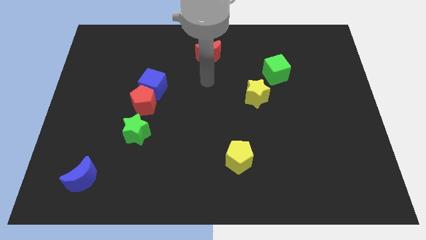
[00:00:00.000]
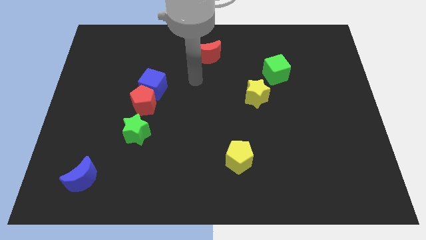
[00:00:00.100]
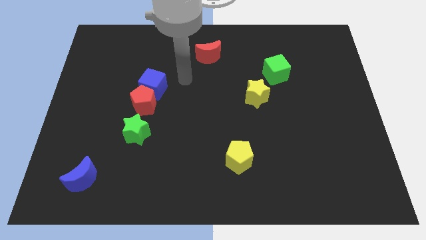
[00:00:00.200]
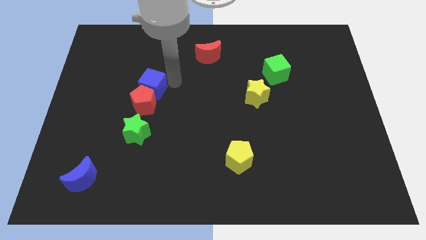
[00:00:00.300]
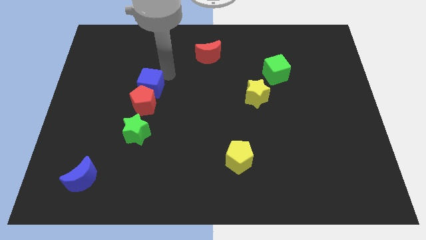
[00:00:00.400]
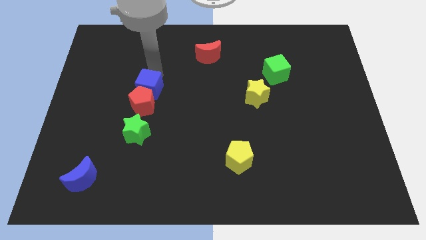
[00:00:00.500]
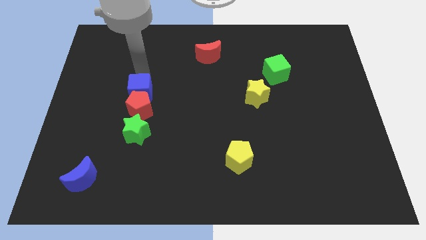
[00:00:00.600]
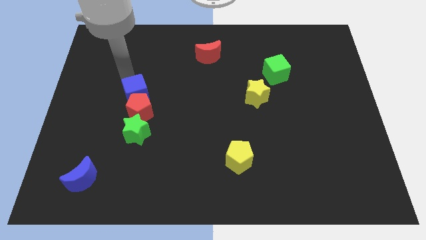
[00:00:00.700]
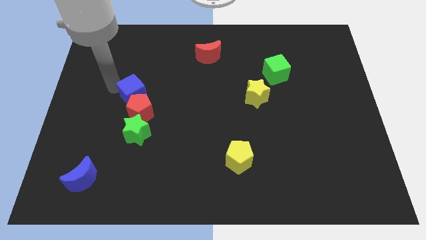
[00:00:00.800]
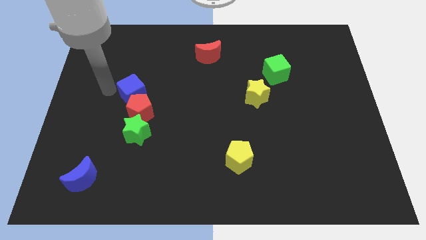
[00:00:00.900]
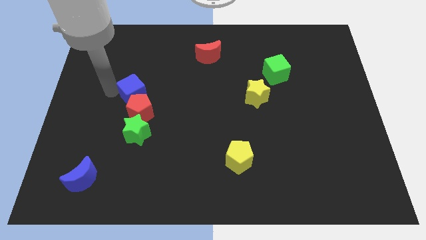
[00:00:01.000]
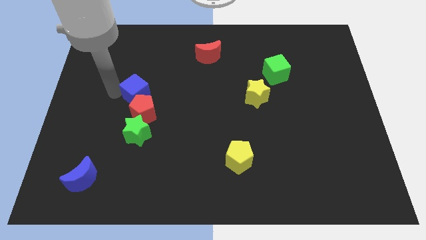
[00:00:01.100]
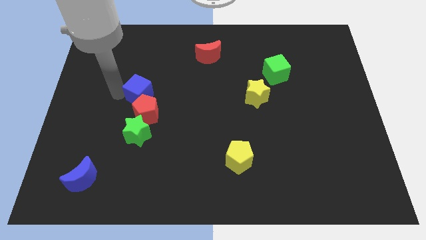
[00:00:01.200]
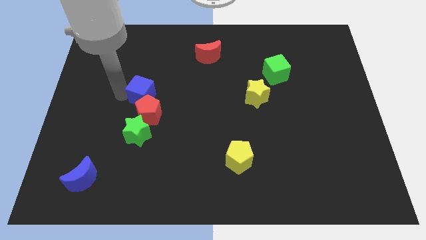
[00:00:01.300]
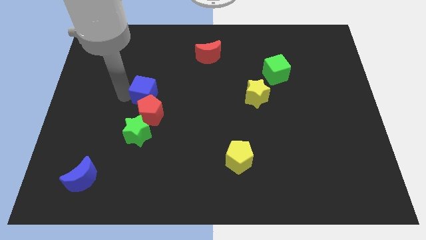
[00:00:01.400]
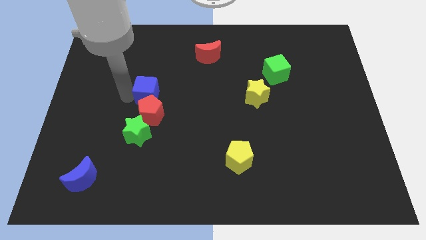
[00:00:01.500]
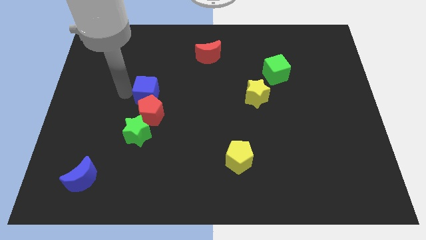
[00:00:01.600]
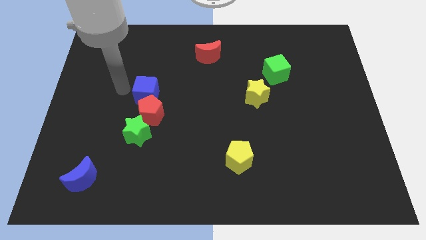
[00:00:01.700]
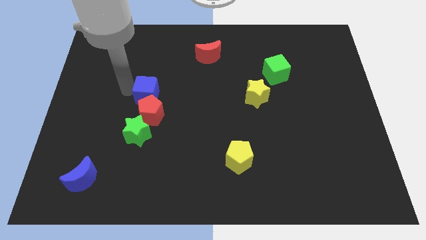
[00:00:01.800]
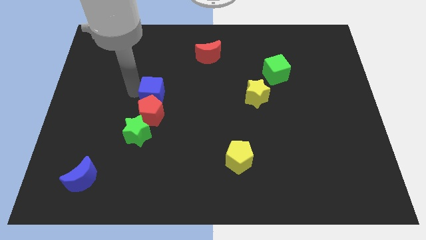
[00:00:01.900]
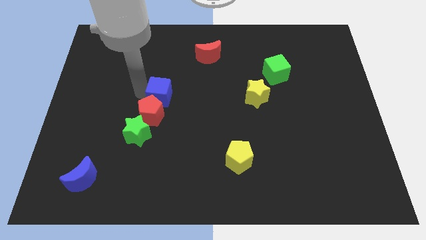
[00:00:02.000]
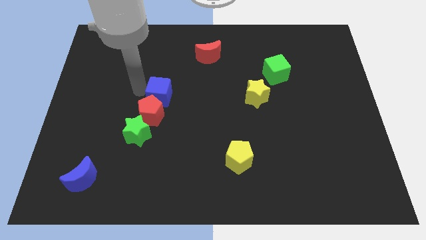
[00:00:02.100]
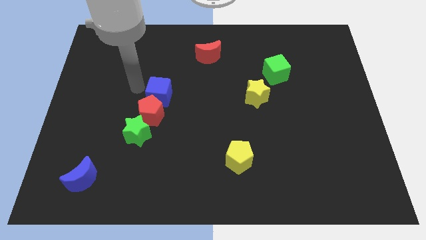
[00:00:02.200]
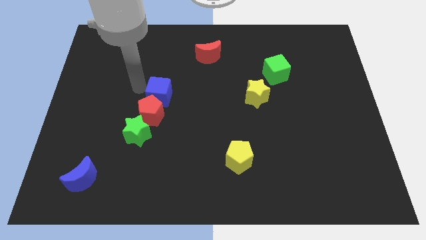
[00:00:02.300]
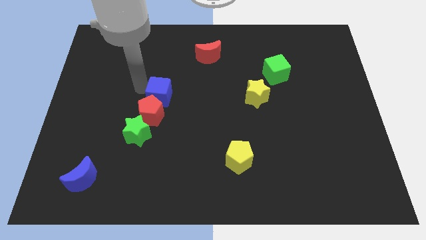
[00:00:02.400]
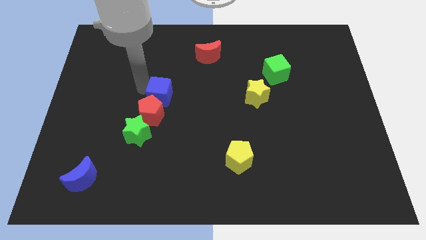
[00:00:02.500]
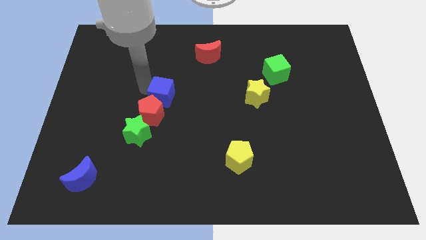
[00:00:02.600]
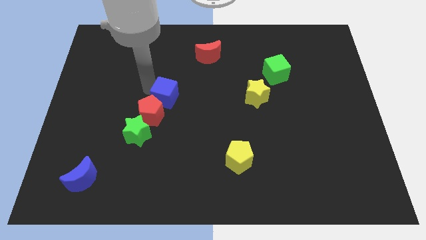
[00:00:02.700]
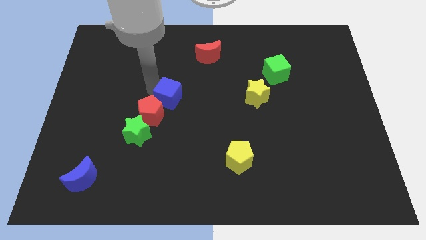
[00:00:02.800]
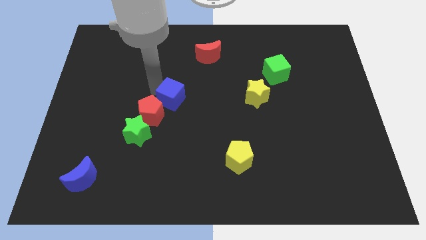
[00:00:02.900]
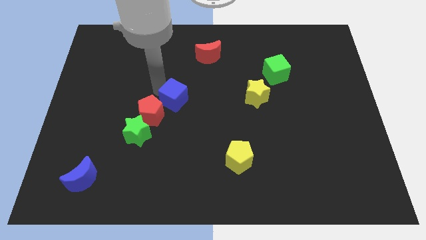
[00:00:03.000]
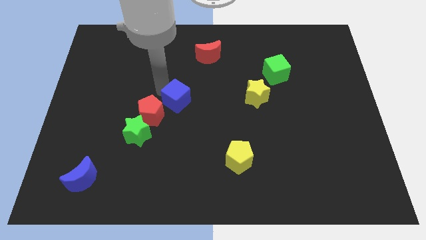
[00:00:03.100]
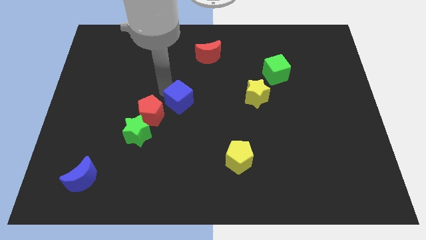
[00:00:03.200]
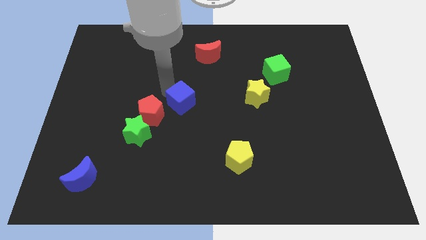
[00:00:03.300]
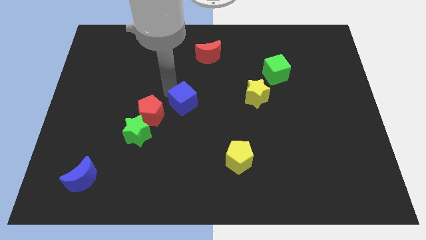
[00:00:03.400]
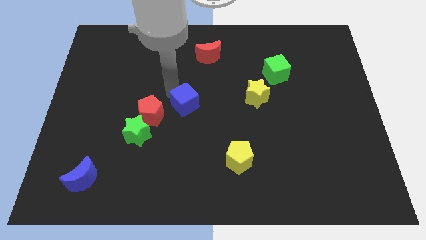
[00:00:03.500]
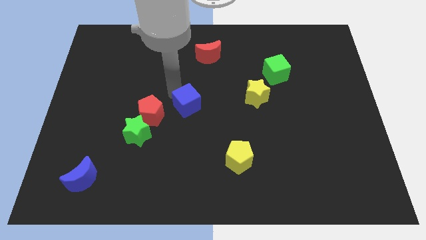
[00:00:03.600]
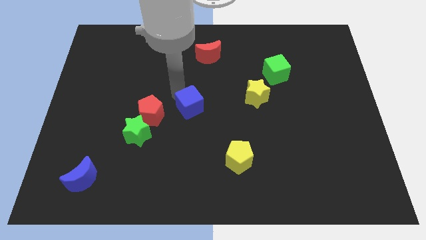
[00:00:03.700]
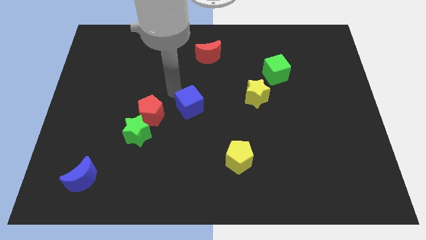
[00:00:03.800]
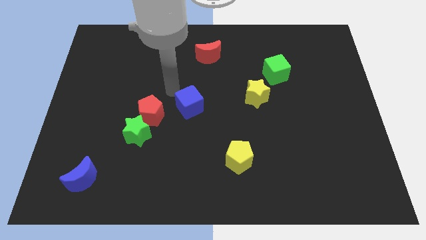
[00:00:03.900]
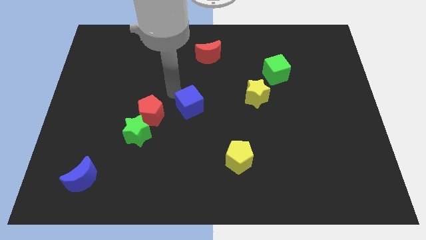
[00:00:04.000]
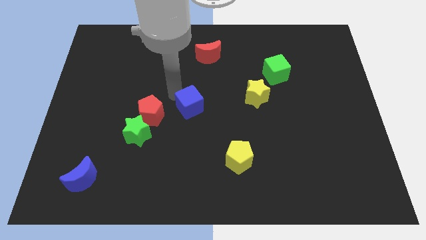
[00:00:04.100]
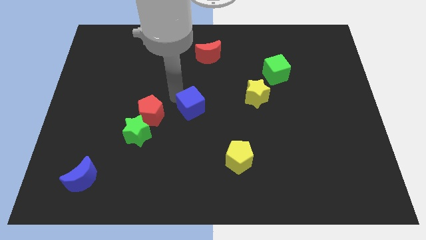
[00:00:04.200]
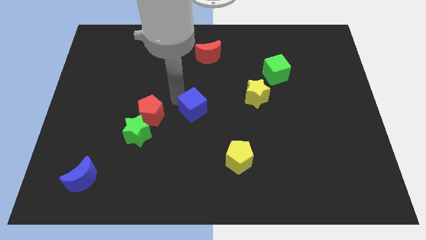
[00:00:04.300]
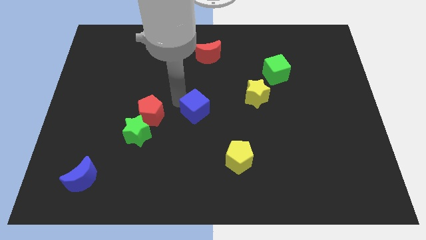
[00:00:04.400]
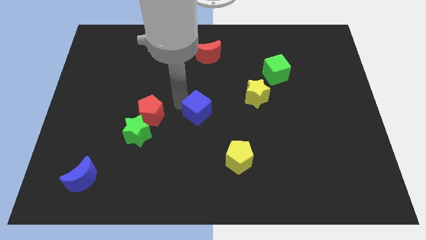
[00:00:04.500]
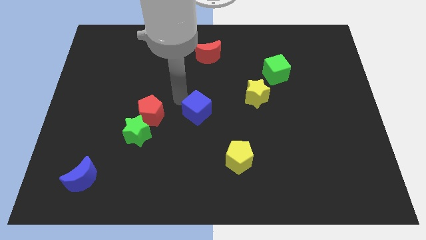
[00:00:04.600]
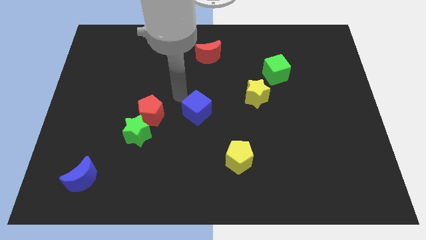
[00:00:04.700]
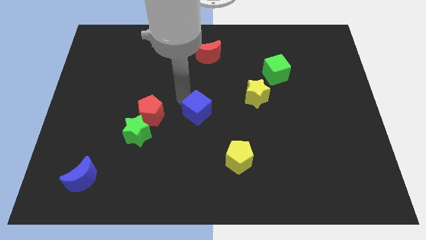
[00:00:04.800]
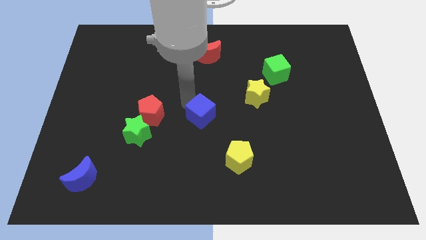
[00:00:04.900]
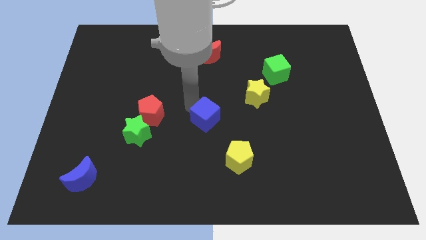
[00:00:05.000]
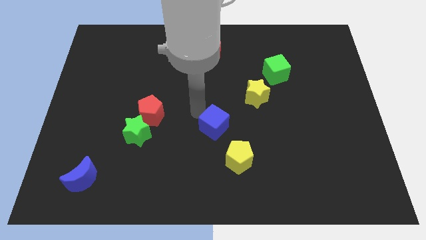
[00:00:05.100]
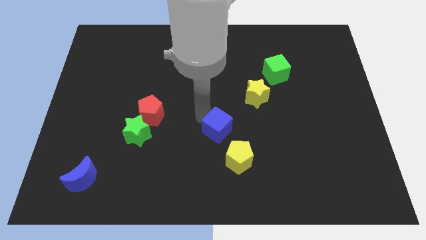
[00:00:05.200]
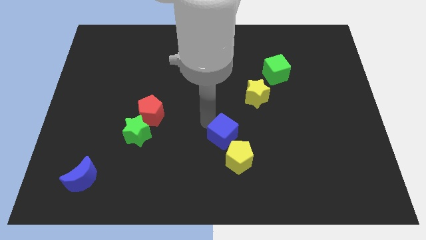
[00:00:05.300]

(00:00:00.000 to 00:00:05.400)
push the blue cube downwards and then to the right

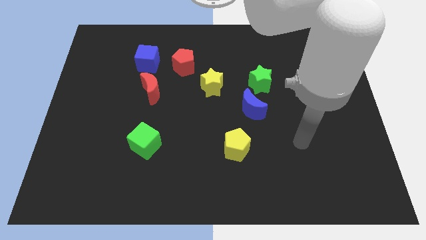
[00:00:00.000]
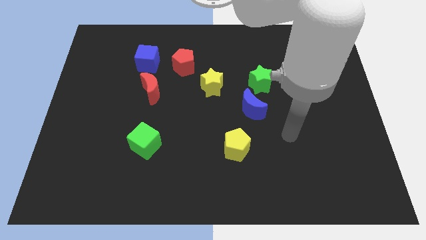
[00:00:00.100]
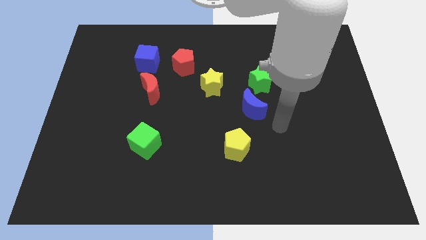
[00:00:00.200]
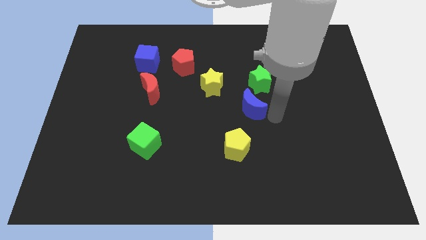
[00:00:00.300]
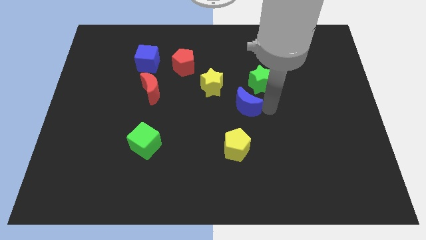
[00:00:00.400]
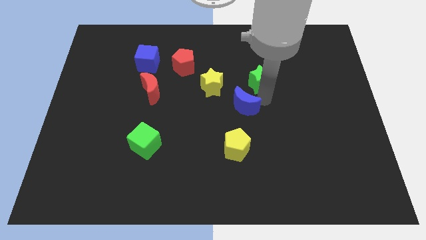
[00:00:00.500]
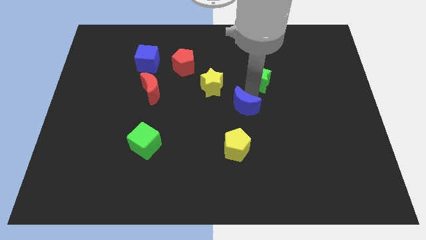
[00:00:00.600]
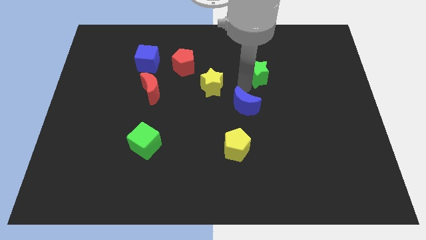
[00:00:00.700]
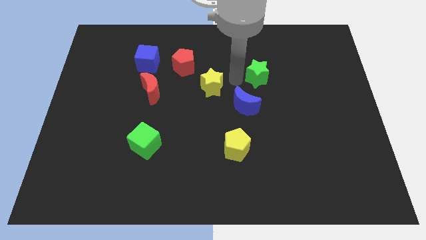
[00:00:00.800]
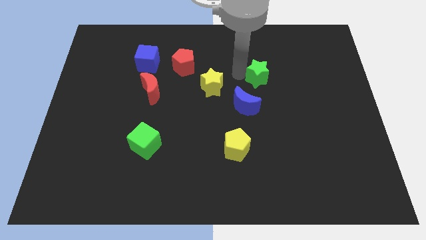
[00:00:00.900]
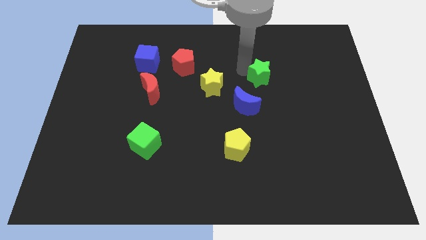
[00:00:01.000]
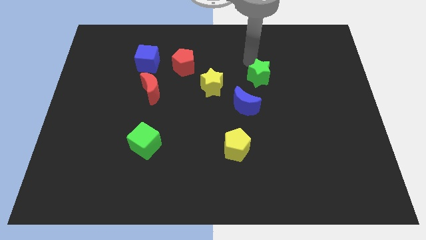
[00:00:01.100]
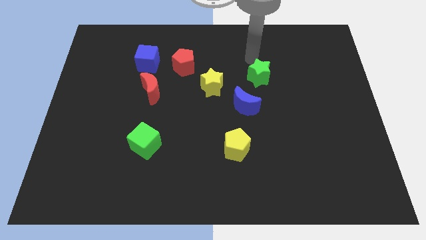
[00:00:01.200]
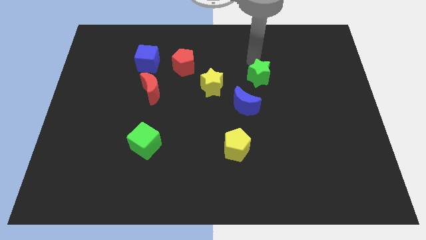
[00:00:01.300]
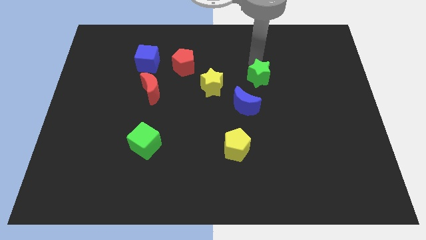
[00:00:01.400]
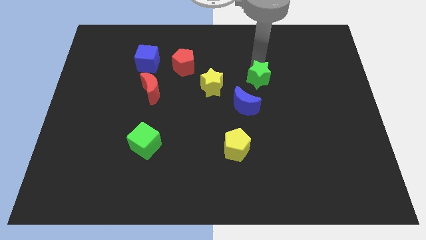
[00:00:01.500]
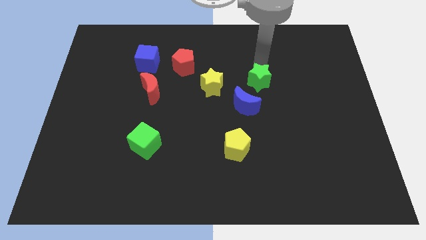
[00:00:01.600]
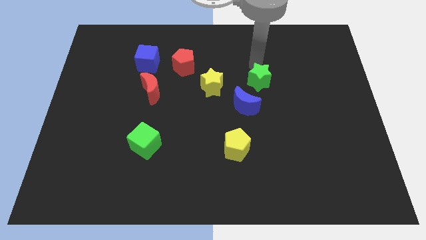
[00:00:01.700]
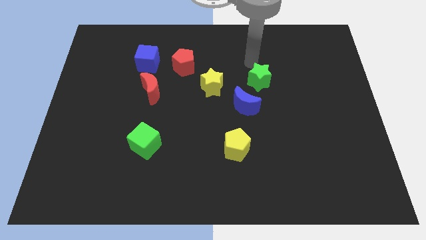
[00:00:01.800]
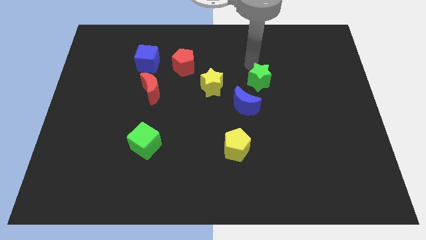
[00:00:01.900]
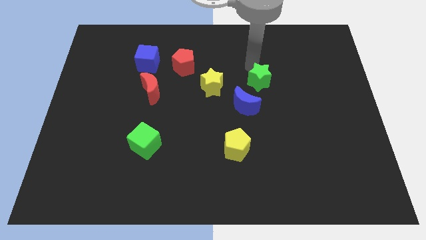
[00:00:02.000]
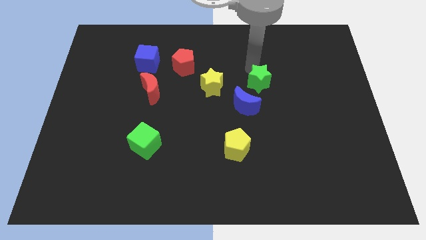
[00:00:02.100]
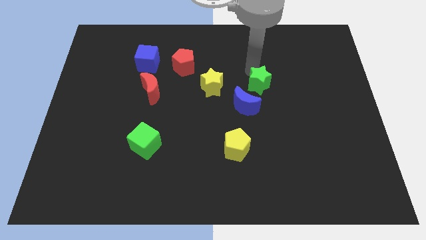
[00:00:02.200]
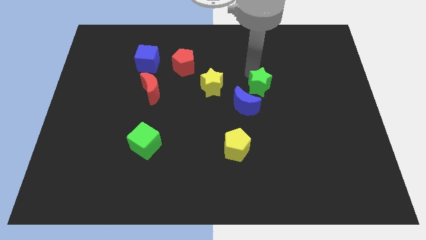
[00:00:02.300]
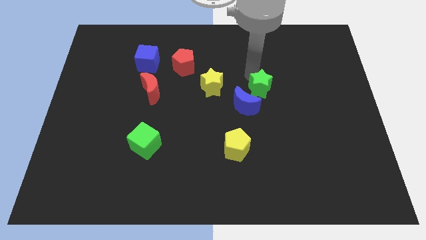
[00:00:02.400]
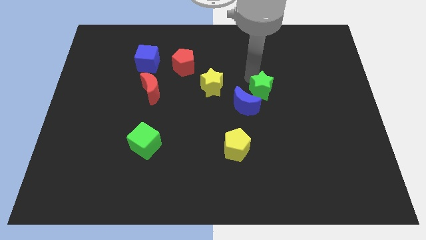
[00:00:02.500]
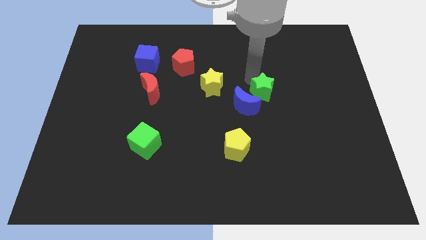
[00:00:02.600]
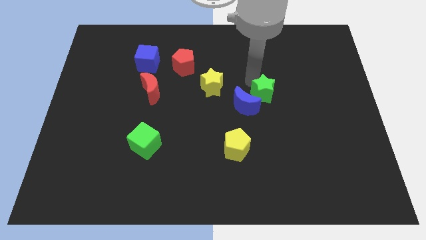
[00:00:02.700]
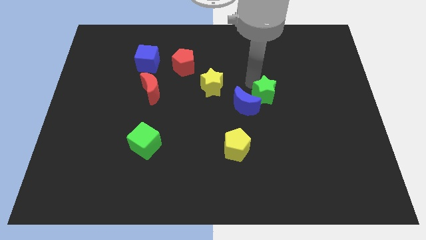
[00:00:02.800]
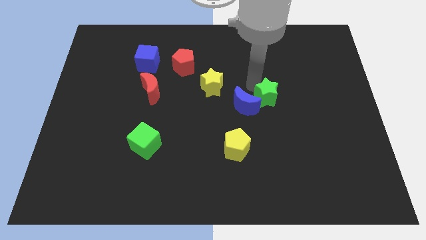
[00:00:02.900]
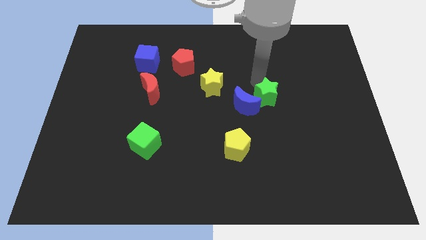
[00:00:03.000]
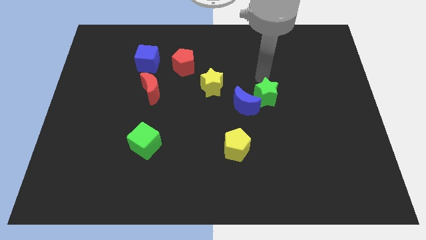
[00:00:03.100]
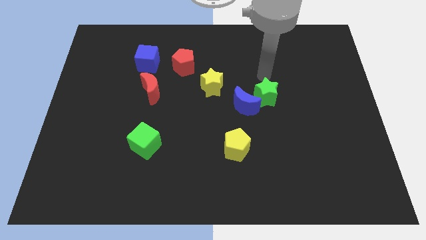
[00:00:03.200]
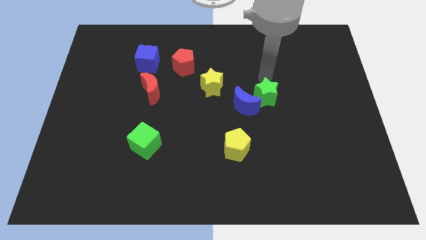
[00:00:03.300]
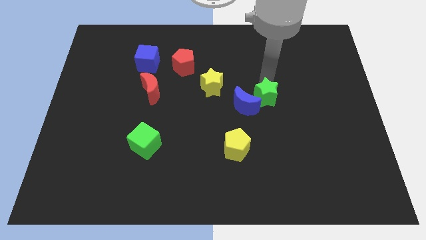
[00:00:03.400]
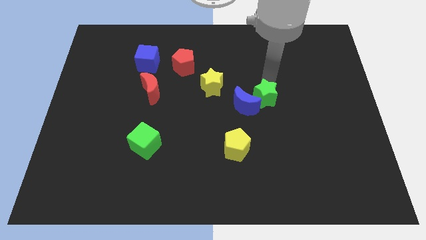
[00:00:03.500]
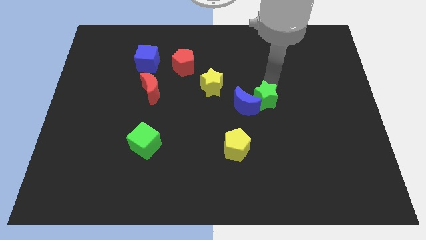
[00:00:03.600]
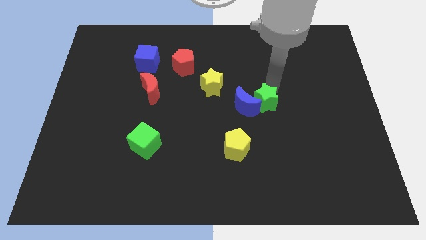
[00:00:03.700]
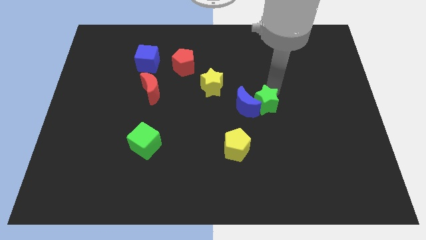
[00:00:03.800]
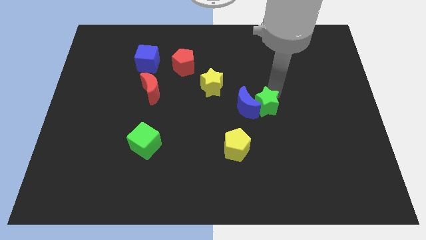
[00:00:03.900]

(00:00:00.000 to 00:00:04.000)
push the green star downwards a little
